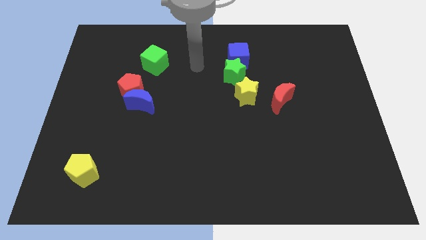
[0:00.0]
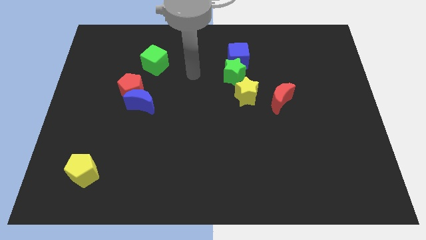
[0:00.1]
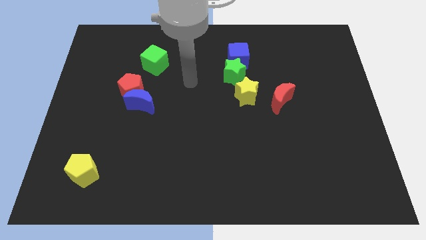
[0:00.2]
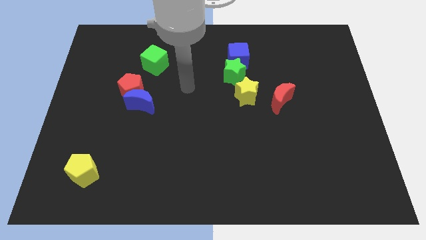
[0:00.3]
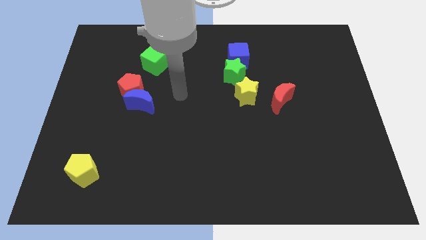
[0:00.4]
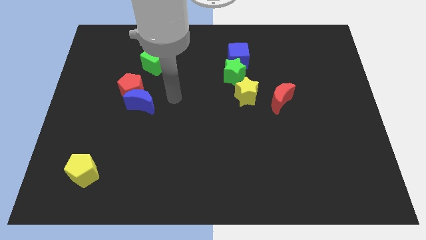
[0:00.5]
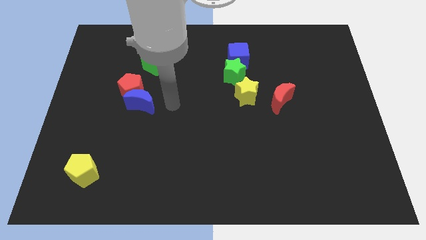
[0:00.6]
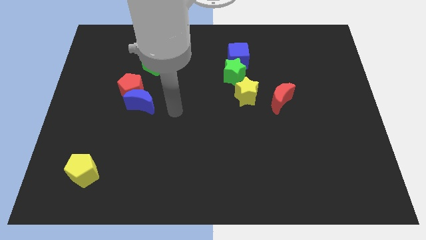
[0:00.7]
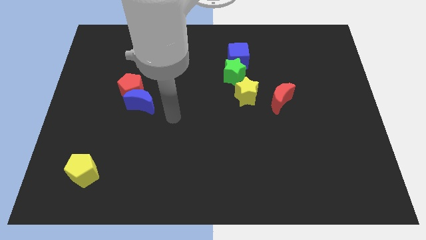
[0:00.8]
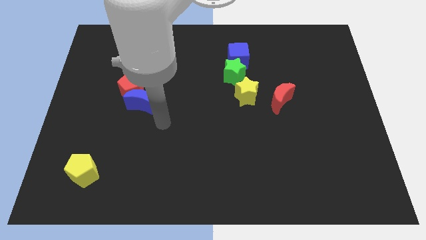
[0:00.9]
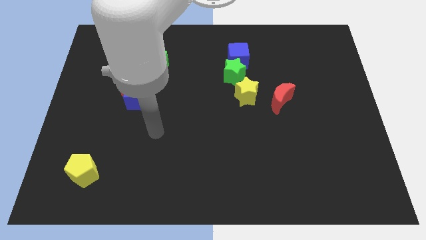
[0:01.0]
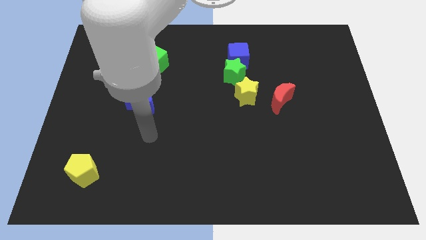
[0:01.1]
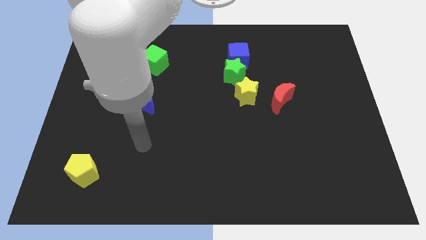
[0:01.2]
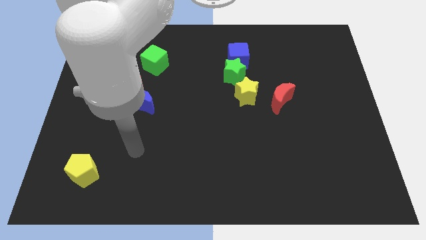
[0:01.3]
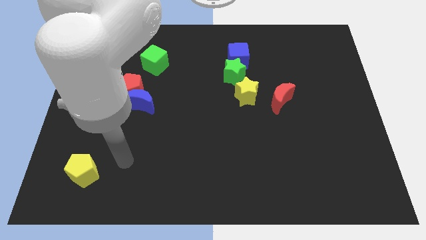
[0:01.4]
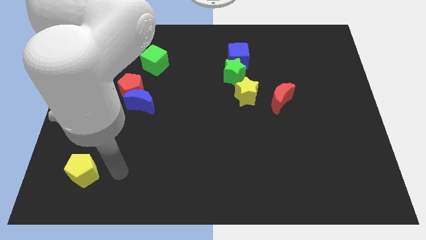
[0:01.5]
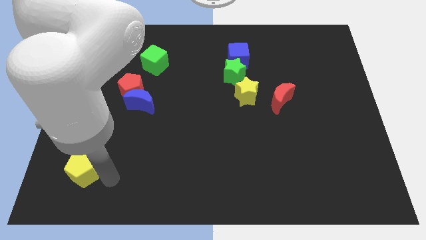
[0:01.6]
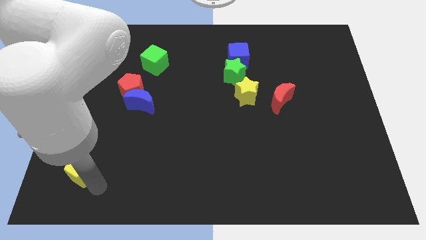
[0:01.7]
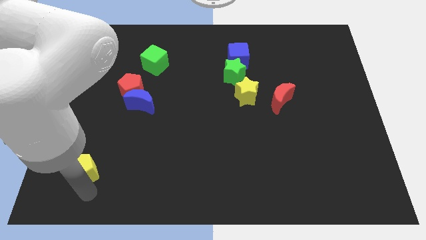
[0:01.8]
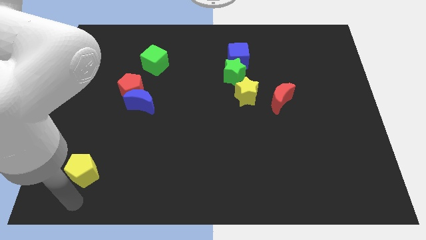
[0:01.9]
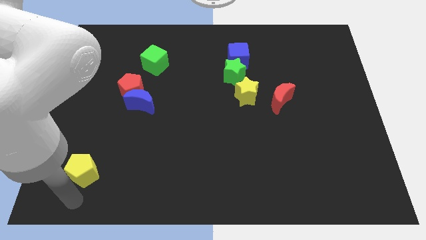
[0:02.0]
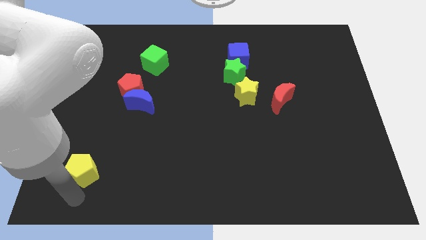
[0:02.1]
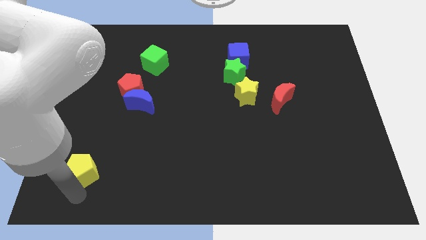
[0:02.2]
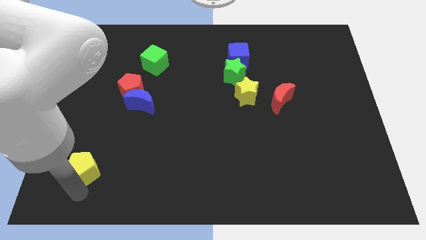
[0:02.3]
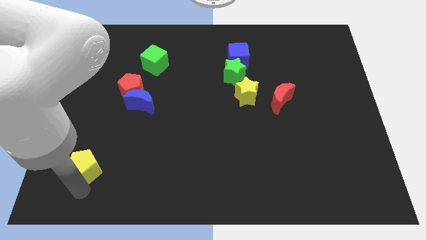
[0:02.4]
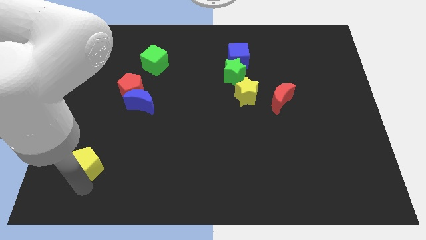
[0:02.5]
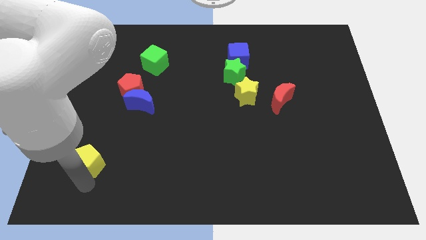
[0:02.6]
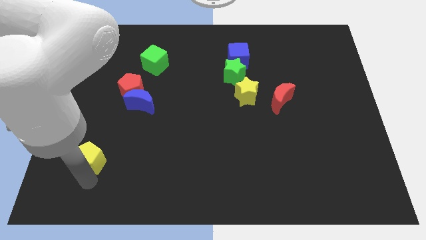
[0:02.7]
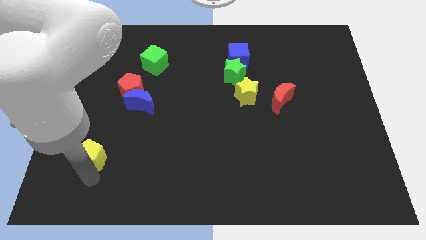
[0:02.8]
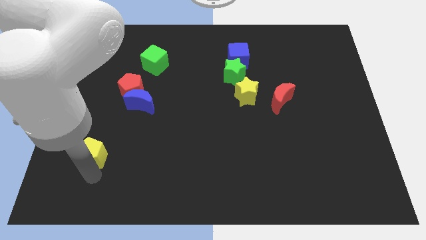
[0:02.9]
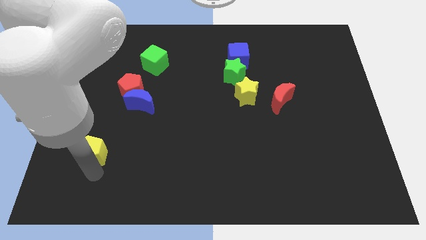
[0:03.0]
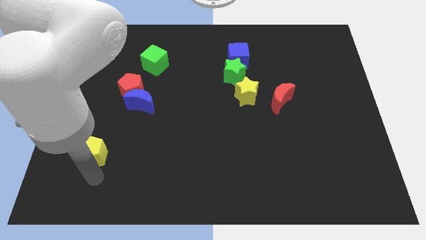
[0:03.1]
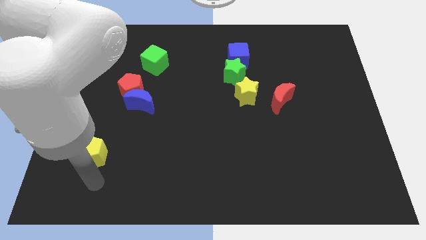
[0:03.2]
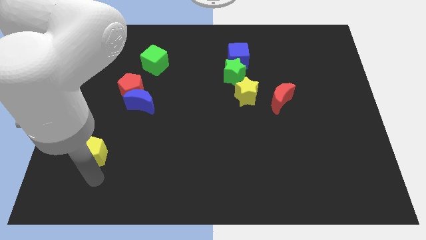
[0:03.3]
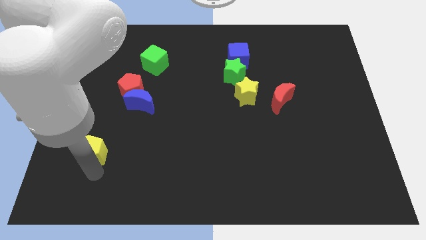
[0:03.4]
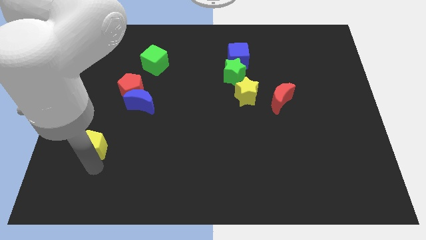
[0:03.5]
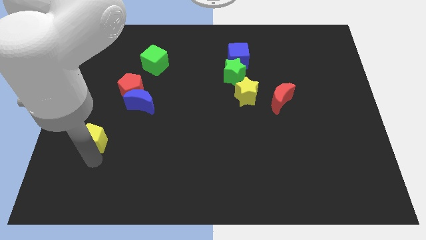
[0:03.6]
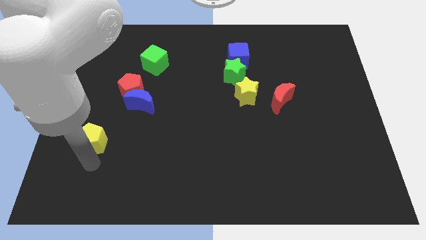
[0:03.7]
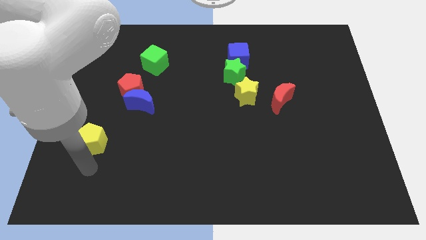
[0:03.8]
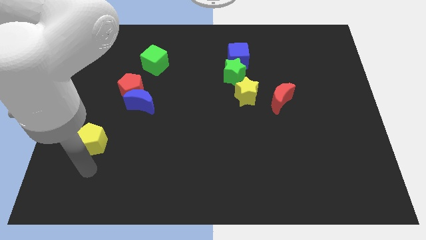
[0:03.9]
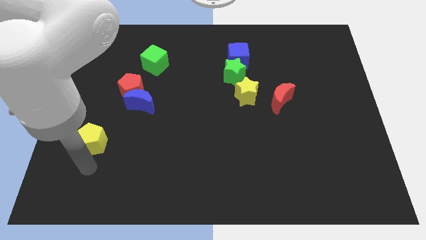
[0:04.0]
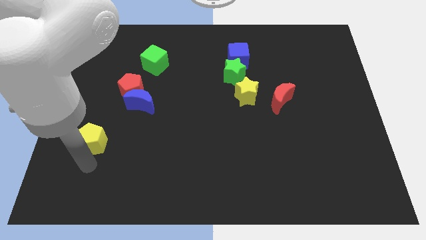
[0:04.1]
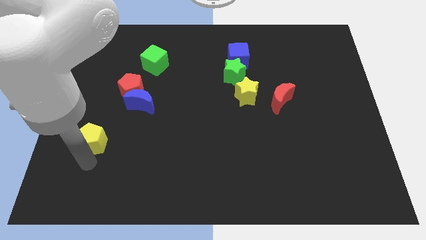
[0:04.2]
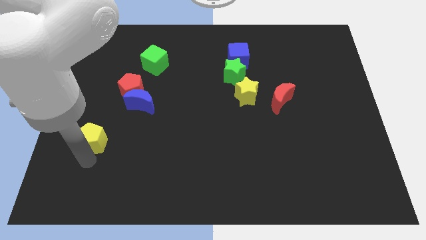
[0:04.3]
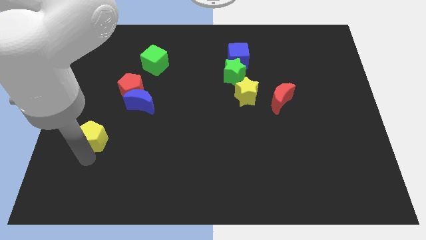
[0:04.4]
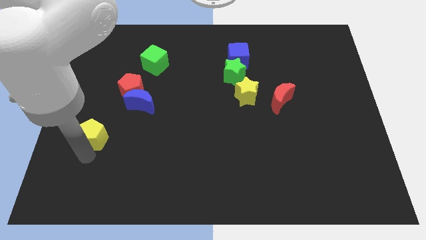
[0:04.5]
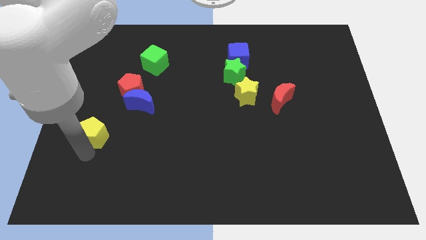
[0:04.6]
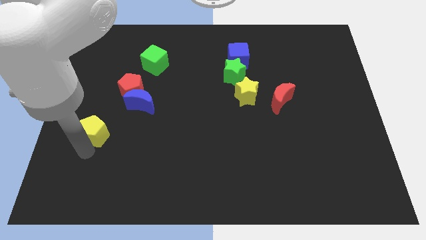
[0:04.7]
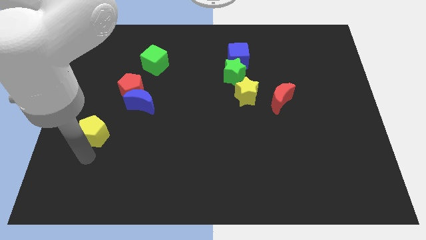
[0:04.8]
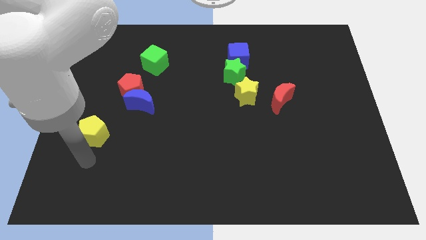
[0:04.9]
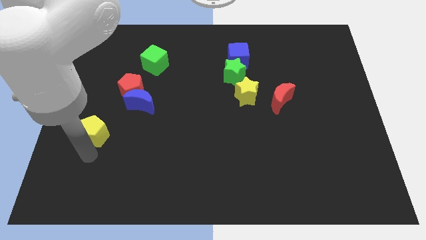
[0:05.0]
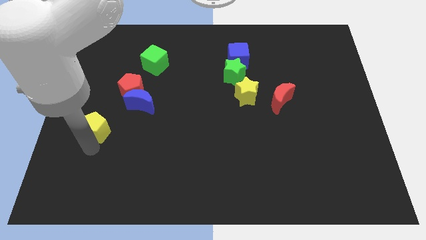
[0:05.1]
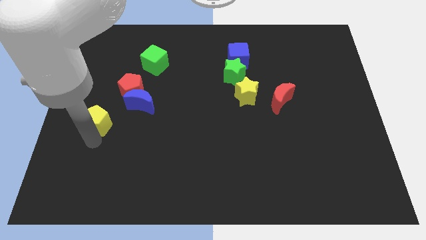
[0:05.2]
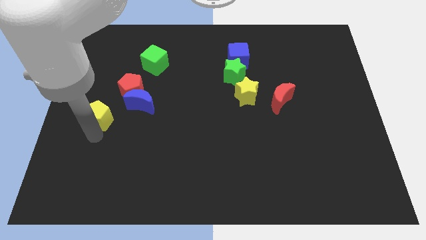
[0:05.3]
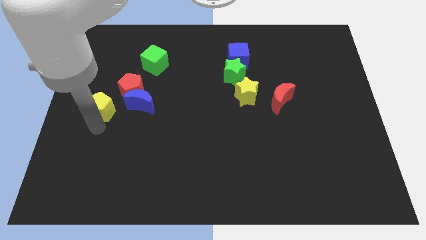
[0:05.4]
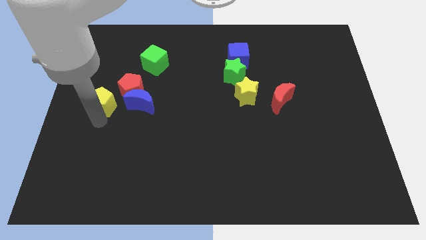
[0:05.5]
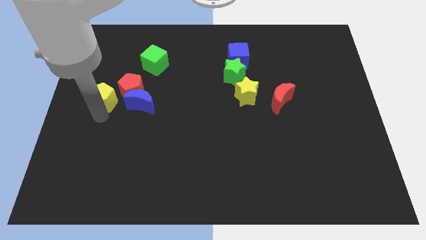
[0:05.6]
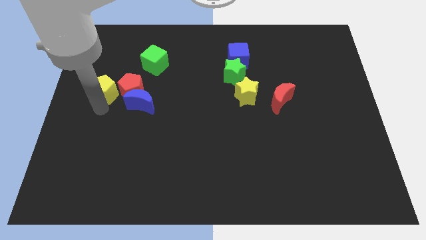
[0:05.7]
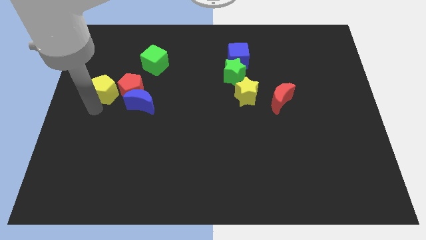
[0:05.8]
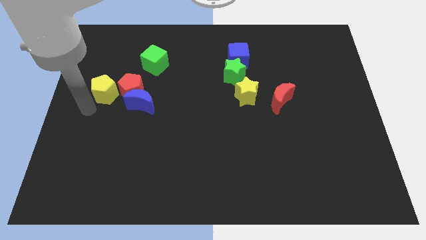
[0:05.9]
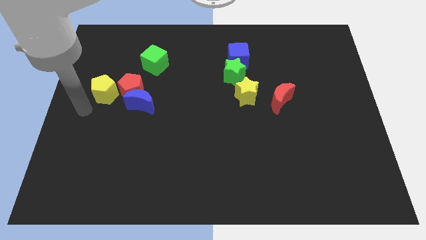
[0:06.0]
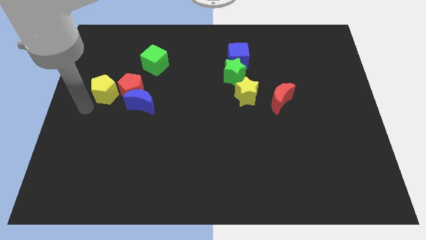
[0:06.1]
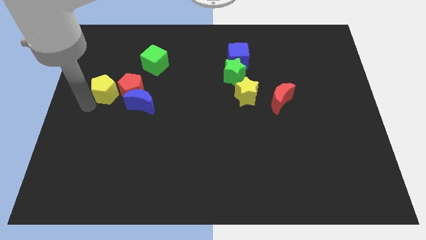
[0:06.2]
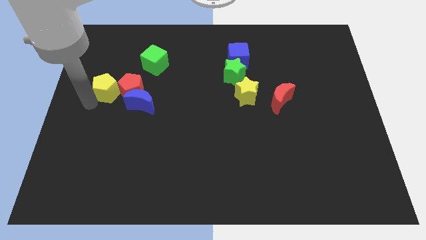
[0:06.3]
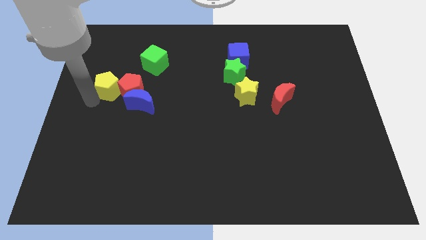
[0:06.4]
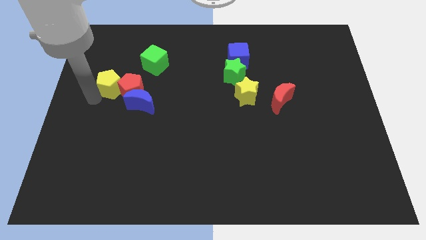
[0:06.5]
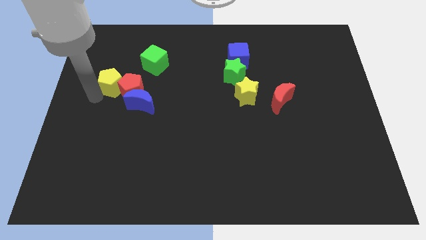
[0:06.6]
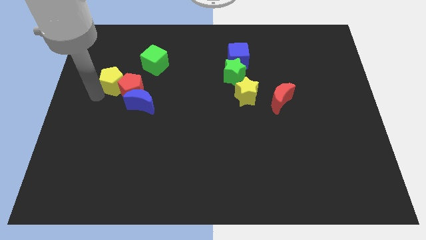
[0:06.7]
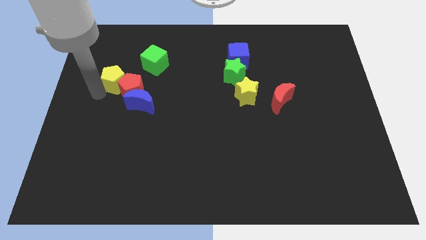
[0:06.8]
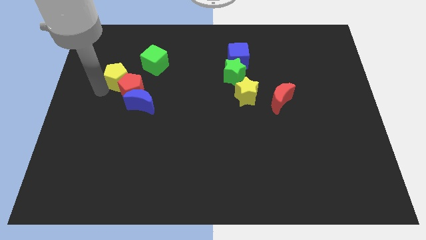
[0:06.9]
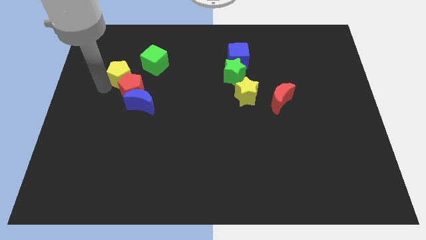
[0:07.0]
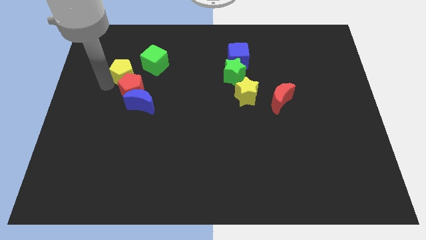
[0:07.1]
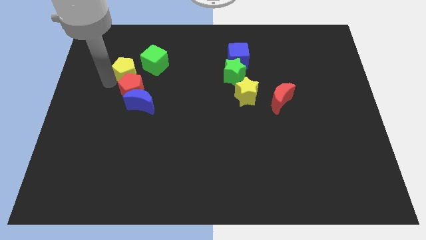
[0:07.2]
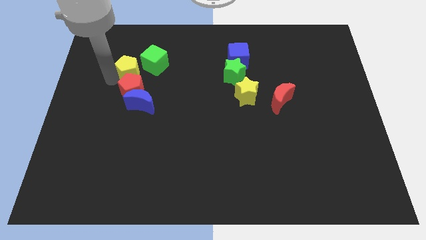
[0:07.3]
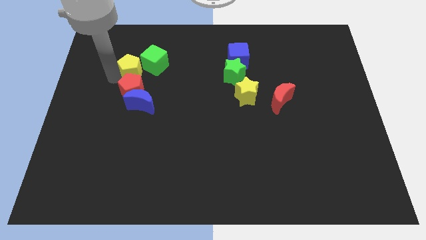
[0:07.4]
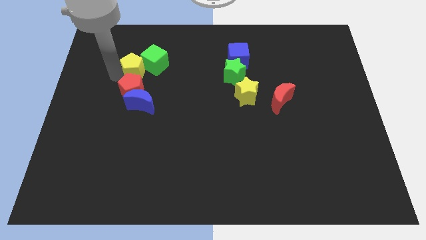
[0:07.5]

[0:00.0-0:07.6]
slide the yellow pentagon next to the green cube
